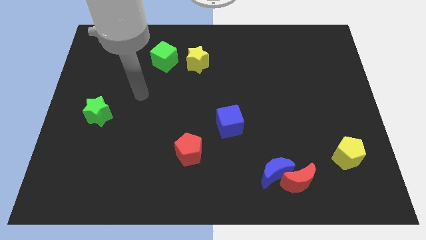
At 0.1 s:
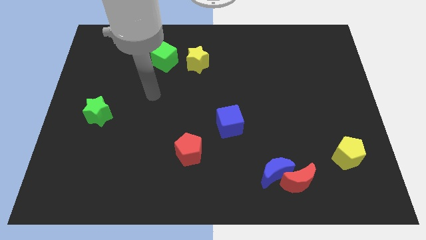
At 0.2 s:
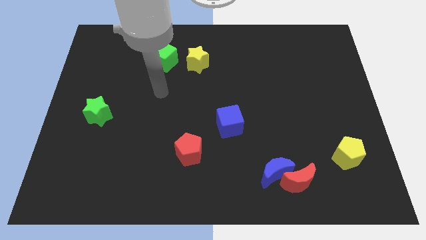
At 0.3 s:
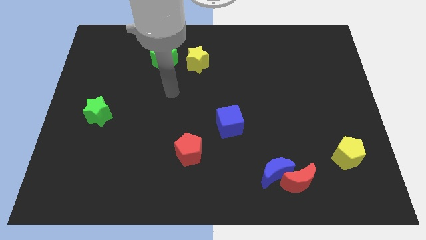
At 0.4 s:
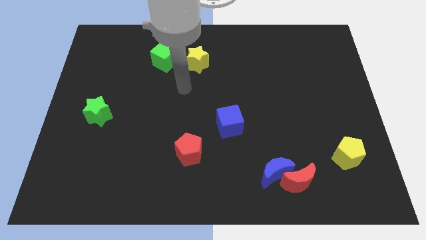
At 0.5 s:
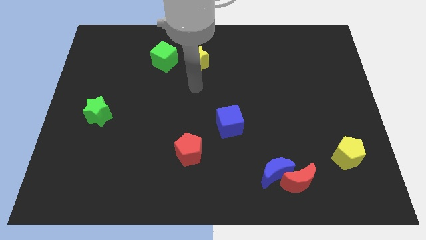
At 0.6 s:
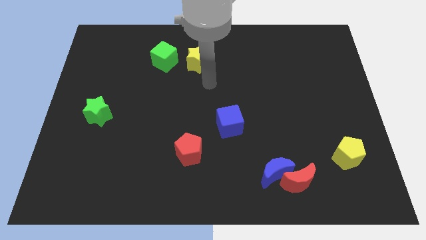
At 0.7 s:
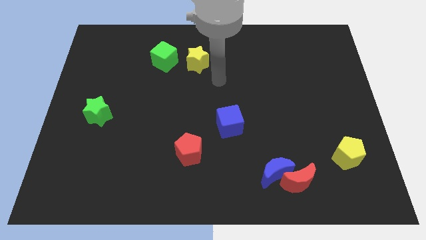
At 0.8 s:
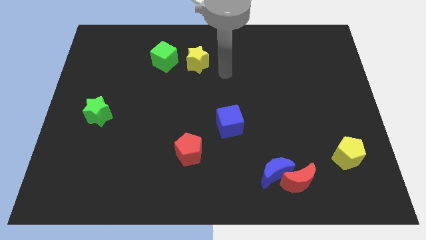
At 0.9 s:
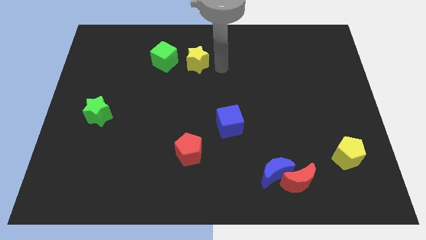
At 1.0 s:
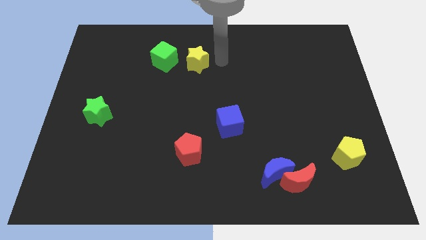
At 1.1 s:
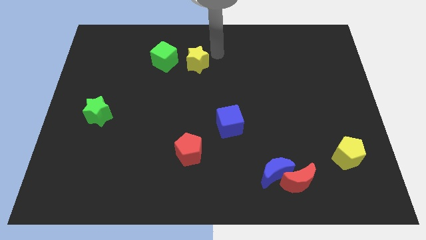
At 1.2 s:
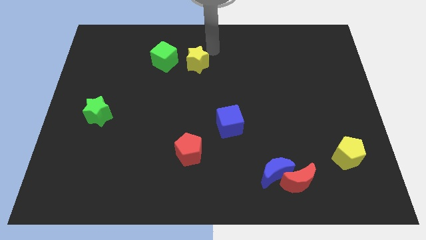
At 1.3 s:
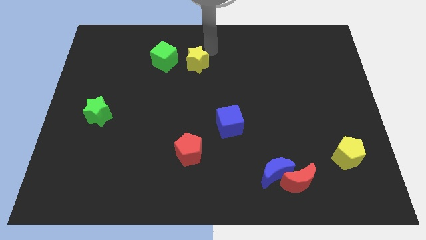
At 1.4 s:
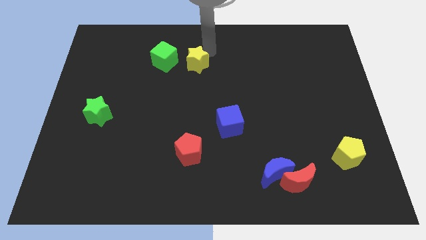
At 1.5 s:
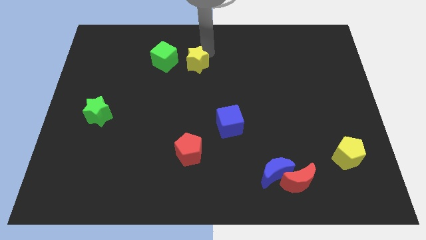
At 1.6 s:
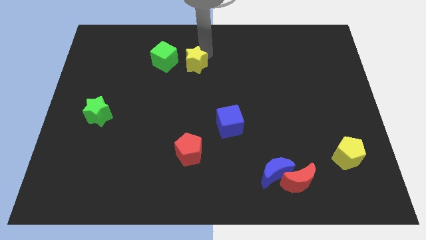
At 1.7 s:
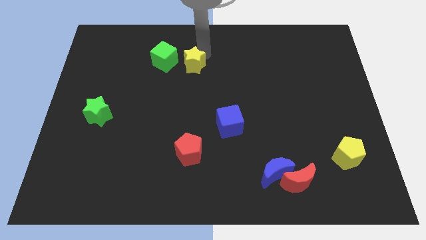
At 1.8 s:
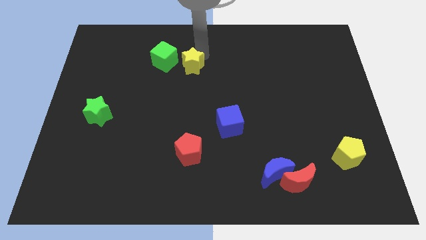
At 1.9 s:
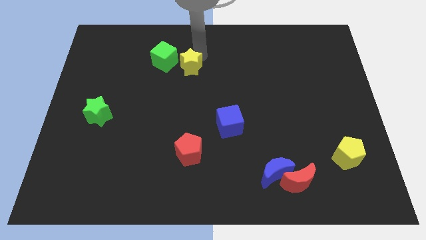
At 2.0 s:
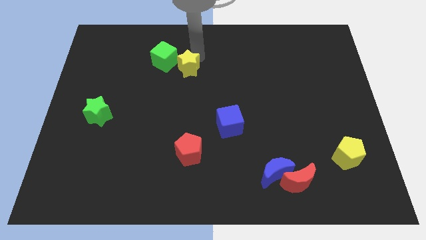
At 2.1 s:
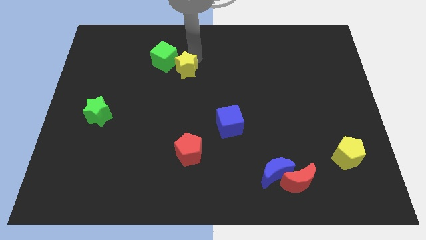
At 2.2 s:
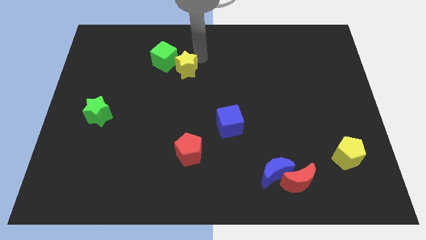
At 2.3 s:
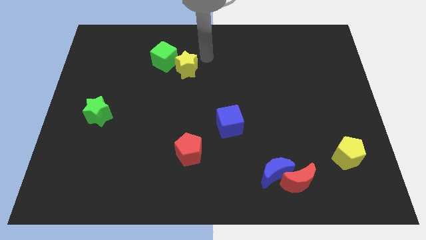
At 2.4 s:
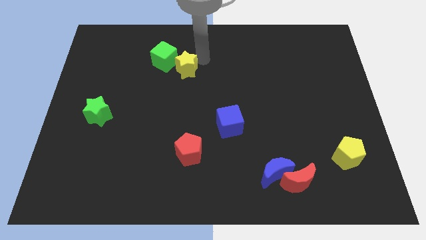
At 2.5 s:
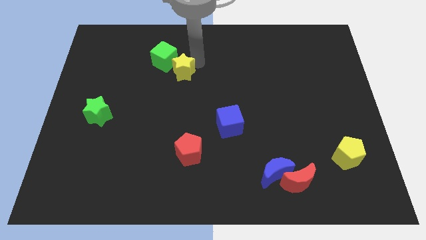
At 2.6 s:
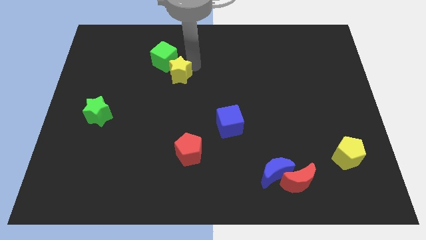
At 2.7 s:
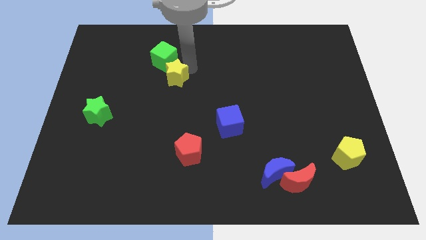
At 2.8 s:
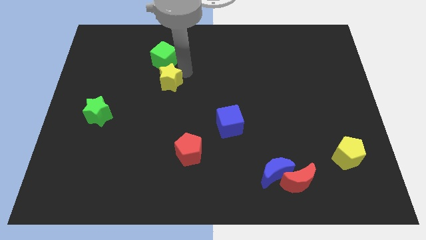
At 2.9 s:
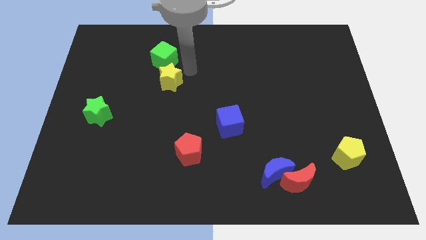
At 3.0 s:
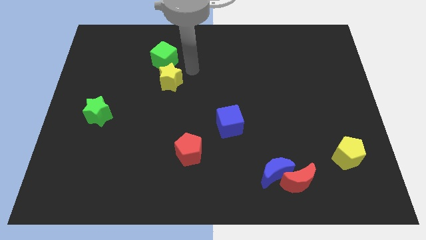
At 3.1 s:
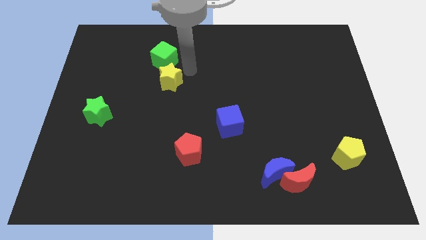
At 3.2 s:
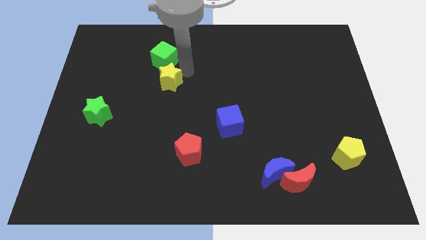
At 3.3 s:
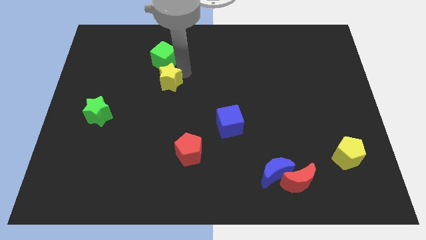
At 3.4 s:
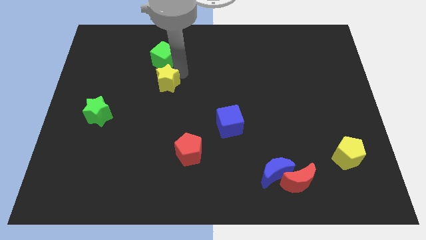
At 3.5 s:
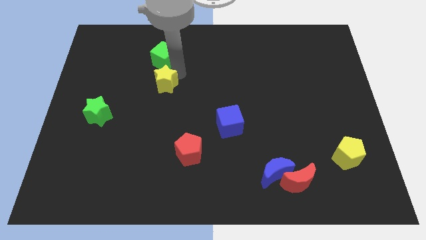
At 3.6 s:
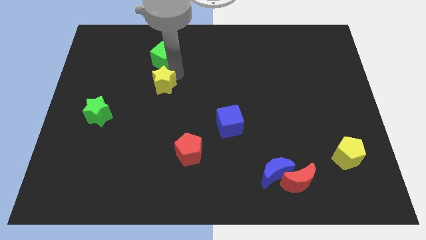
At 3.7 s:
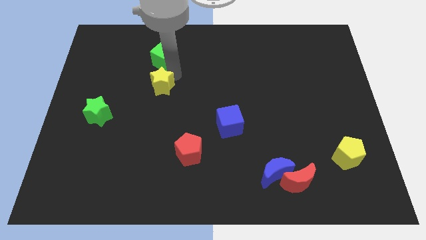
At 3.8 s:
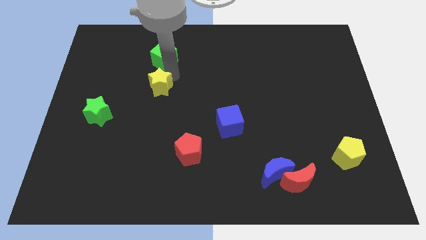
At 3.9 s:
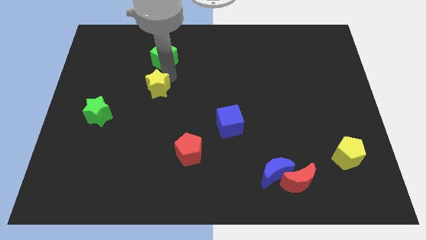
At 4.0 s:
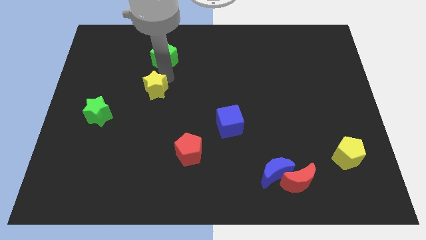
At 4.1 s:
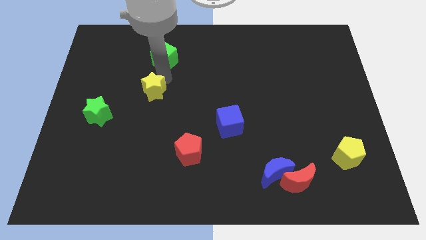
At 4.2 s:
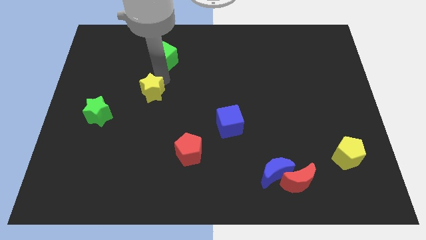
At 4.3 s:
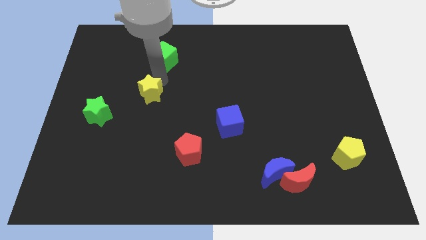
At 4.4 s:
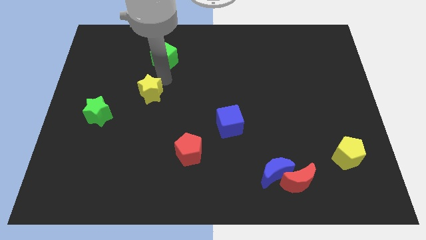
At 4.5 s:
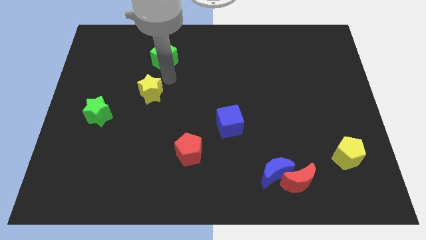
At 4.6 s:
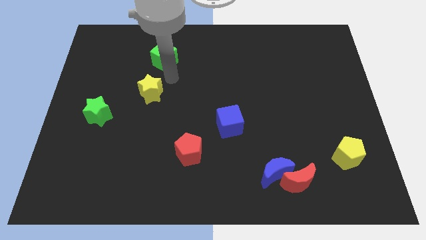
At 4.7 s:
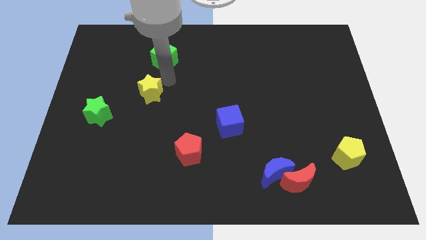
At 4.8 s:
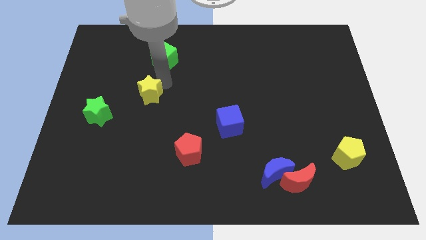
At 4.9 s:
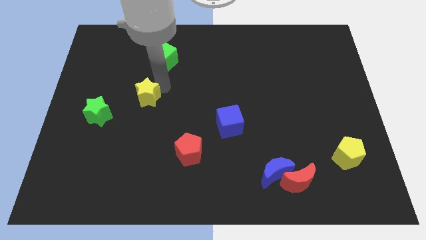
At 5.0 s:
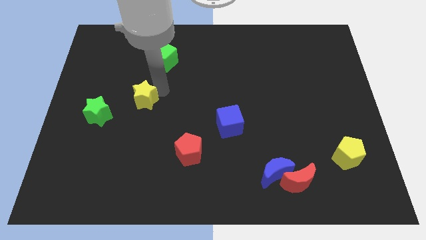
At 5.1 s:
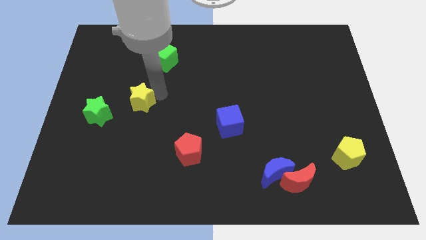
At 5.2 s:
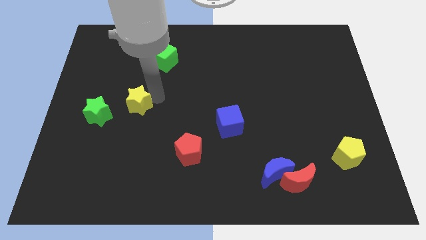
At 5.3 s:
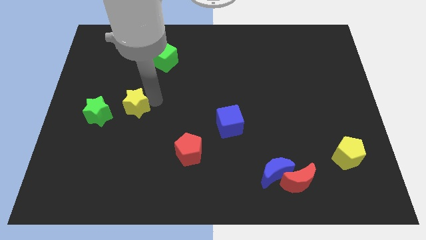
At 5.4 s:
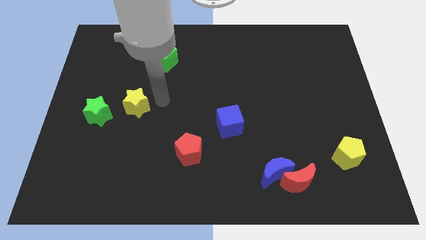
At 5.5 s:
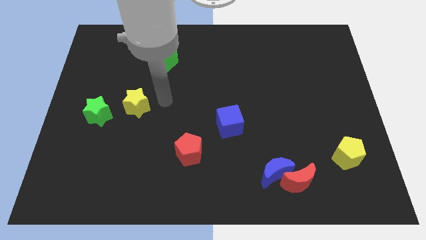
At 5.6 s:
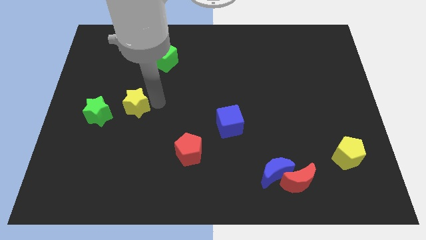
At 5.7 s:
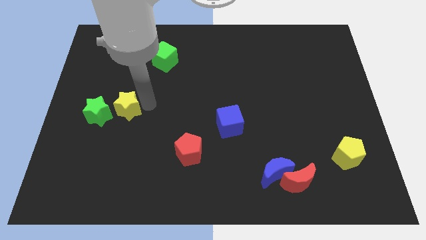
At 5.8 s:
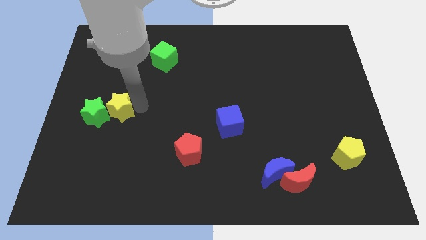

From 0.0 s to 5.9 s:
move the yellow star next to the green star

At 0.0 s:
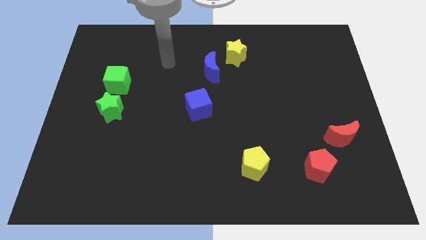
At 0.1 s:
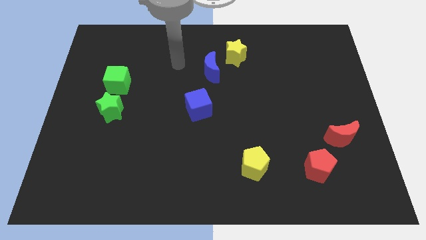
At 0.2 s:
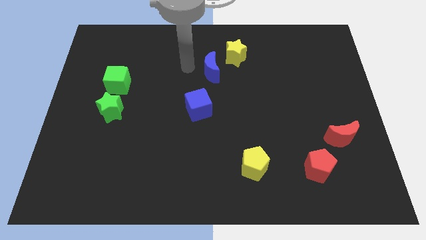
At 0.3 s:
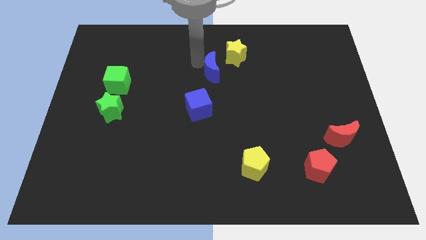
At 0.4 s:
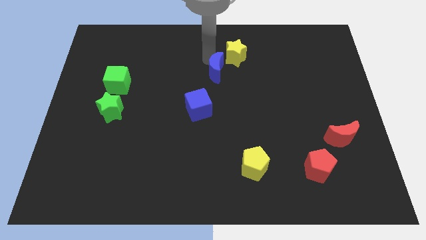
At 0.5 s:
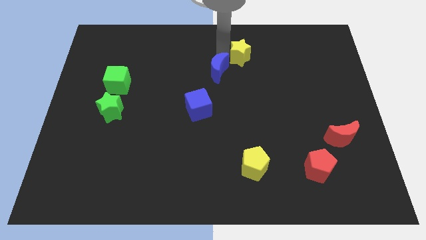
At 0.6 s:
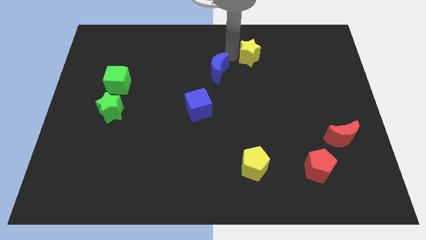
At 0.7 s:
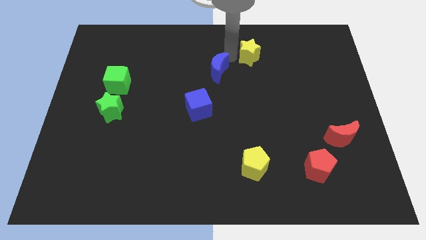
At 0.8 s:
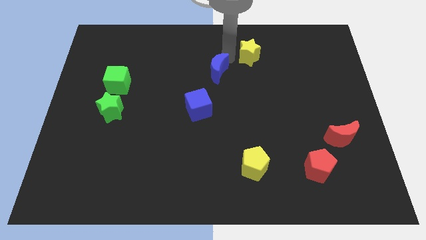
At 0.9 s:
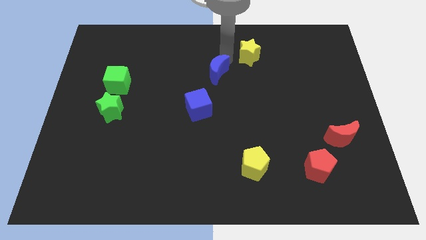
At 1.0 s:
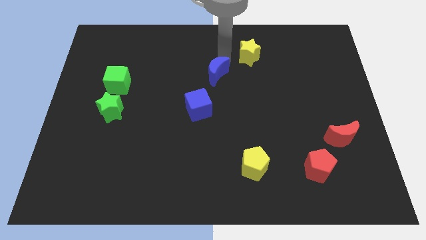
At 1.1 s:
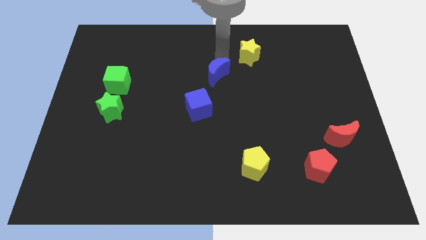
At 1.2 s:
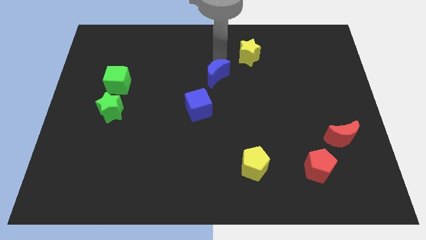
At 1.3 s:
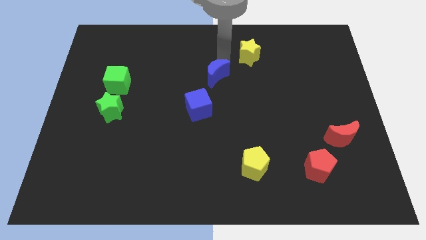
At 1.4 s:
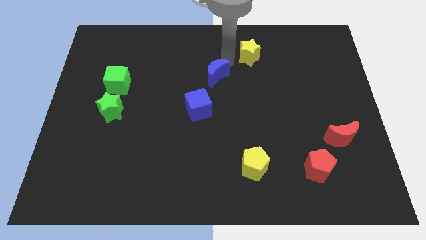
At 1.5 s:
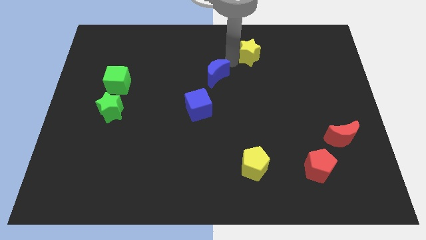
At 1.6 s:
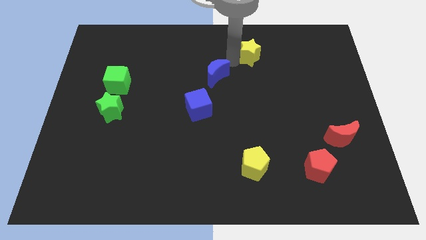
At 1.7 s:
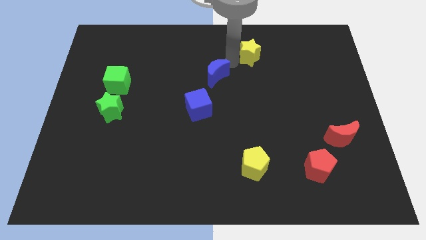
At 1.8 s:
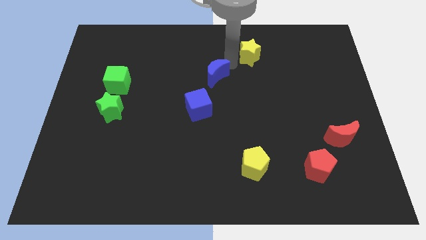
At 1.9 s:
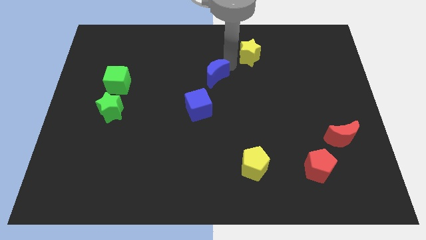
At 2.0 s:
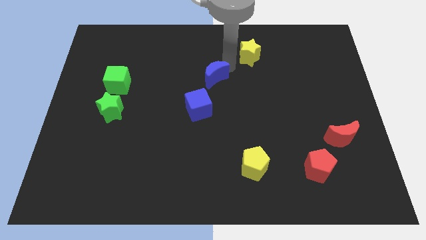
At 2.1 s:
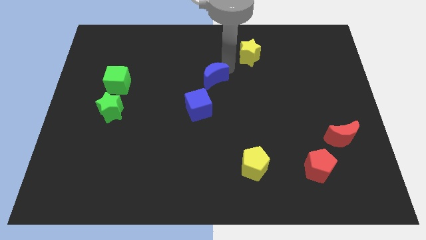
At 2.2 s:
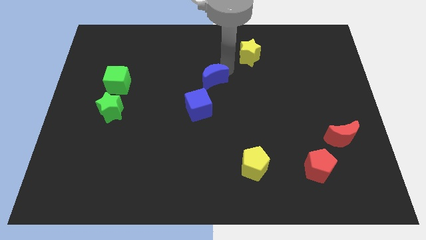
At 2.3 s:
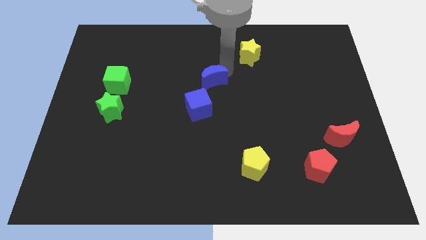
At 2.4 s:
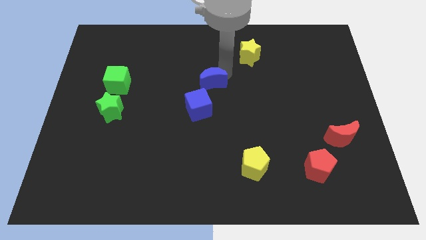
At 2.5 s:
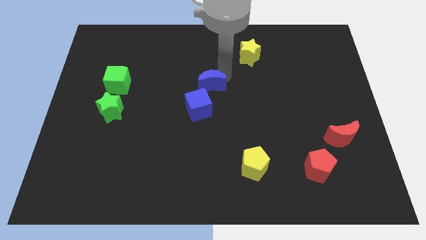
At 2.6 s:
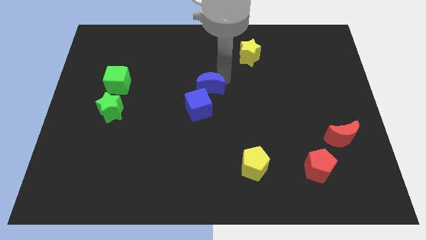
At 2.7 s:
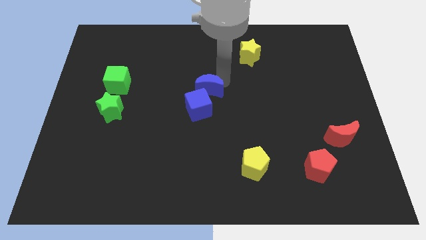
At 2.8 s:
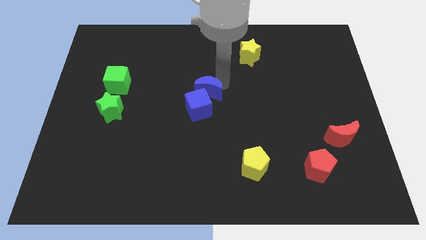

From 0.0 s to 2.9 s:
push the blue moon to the blue cube
